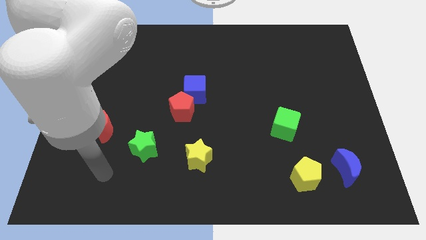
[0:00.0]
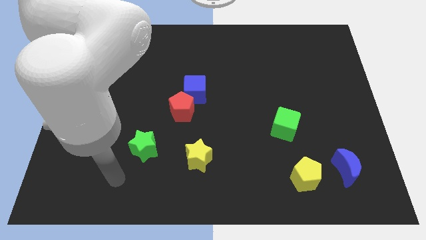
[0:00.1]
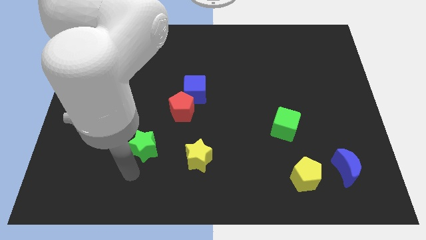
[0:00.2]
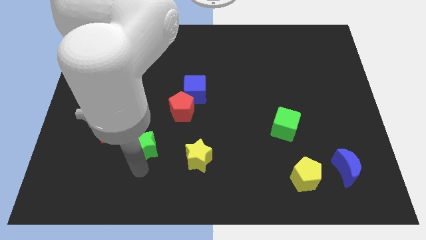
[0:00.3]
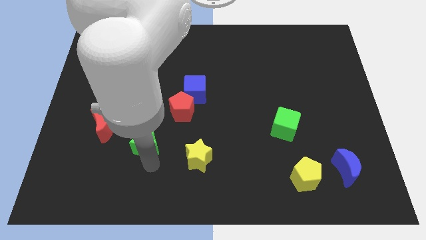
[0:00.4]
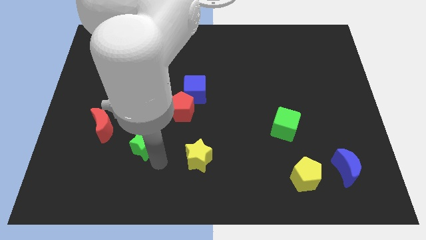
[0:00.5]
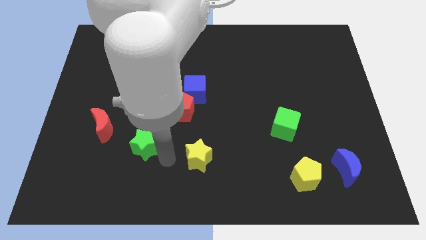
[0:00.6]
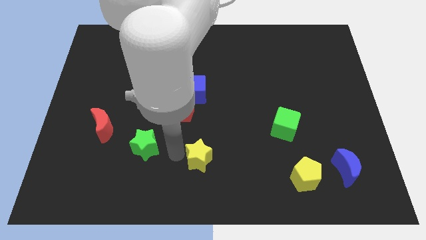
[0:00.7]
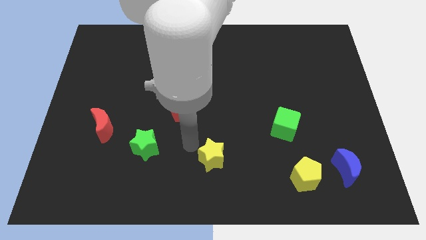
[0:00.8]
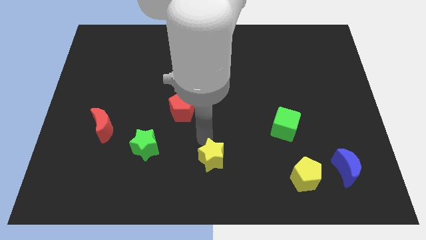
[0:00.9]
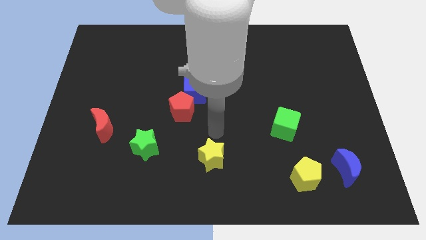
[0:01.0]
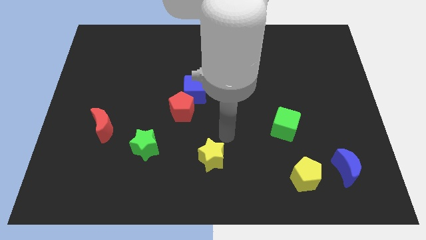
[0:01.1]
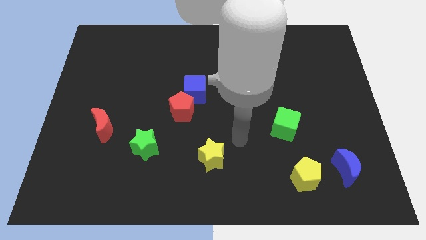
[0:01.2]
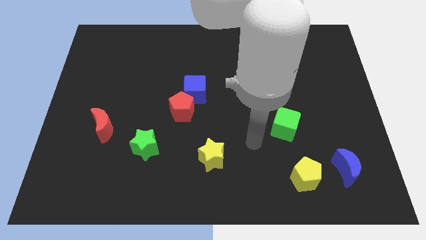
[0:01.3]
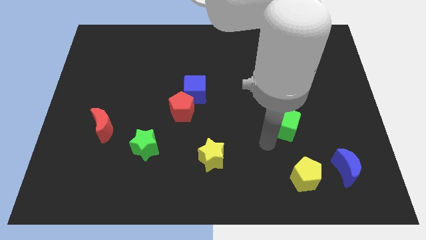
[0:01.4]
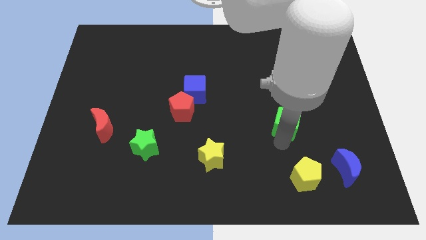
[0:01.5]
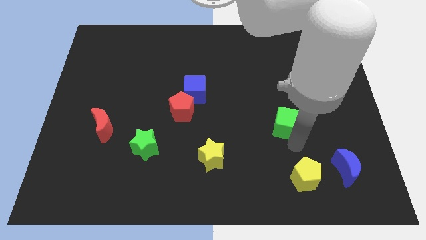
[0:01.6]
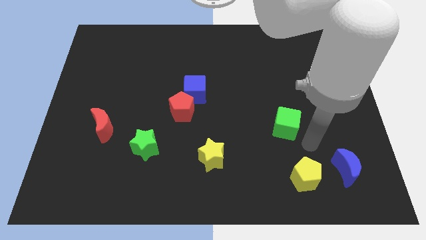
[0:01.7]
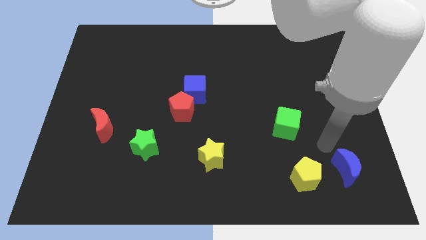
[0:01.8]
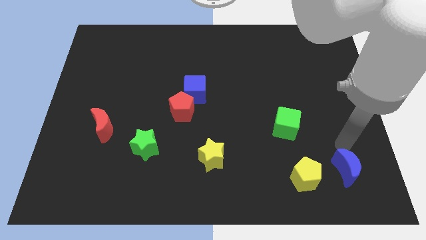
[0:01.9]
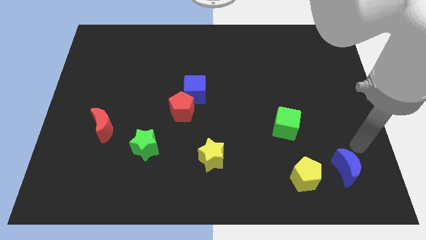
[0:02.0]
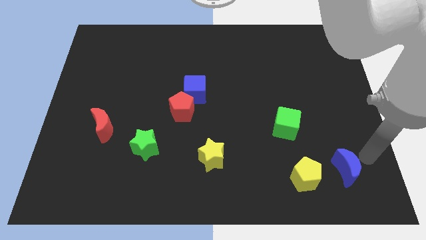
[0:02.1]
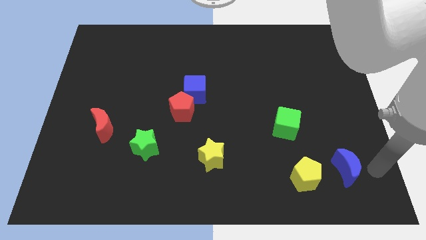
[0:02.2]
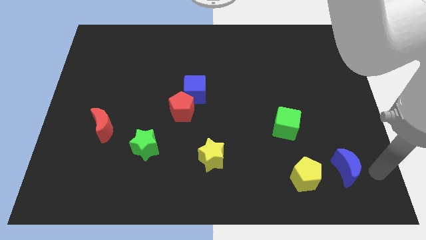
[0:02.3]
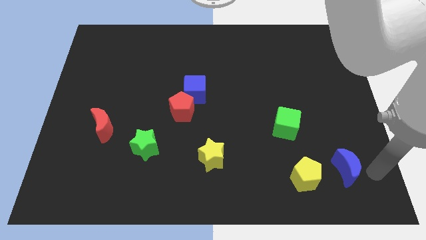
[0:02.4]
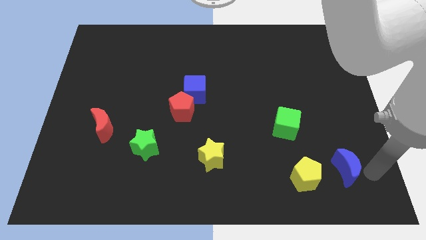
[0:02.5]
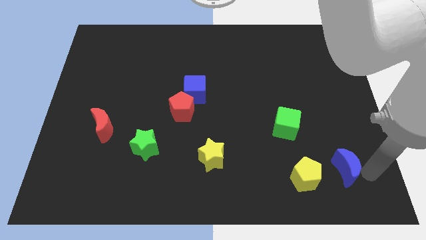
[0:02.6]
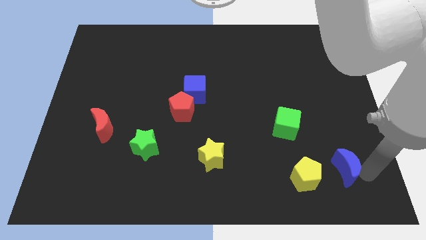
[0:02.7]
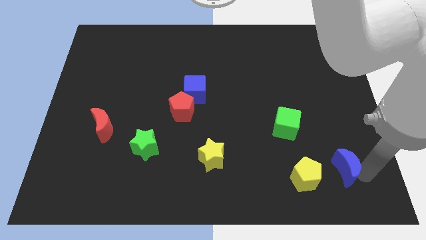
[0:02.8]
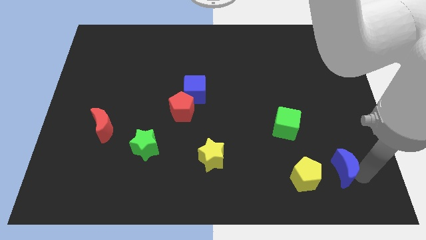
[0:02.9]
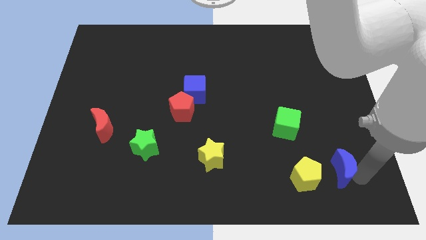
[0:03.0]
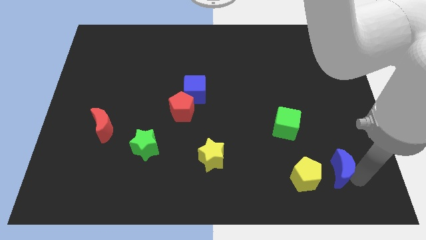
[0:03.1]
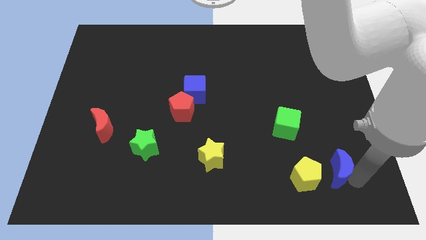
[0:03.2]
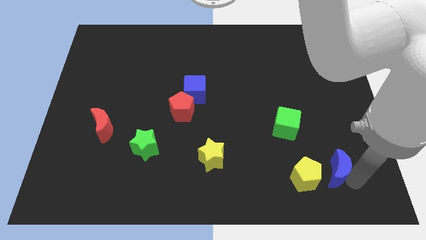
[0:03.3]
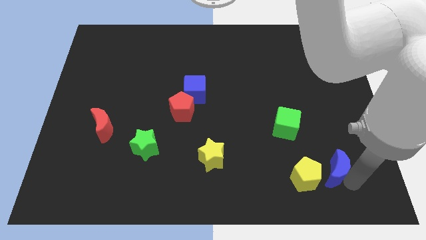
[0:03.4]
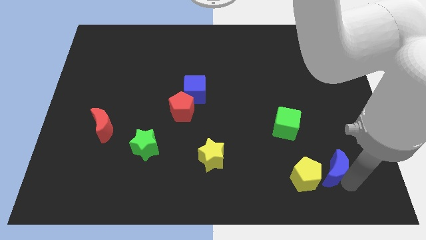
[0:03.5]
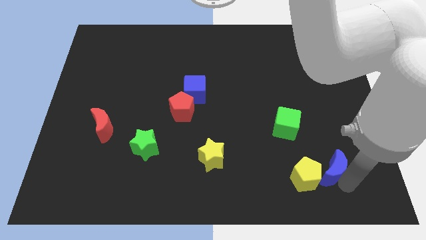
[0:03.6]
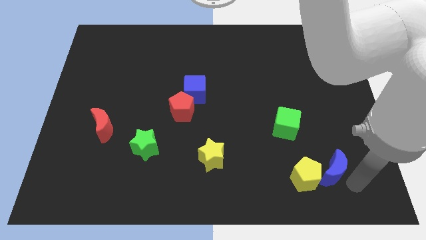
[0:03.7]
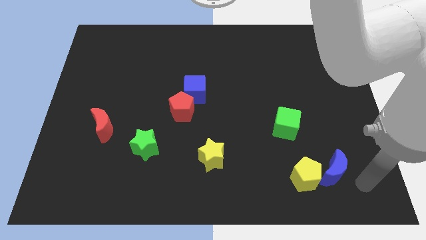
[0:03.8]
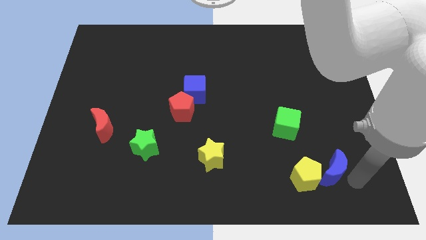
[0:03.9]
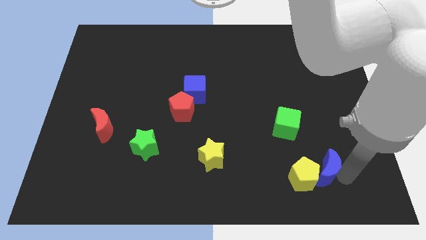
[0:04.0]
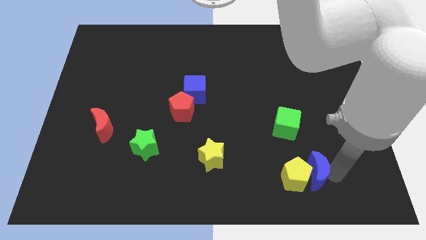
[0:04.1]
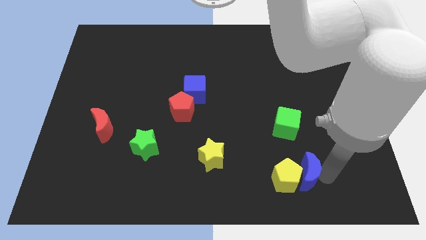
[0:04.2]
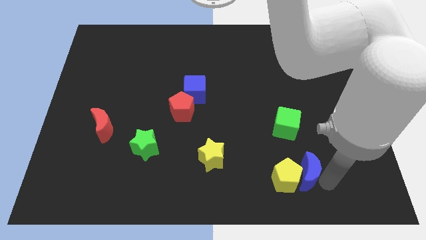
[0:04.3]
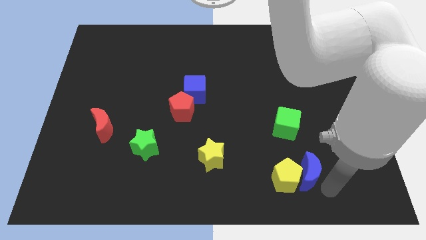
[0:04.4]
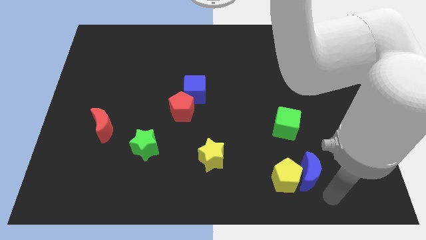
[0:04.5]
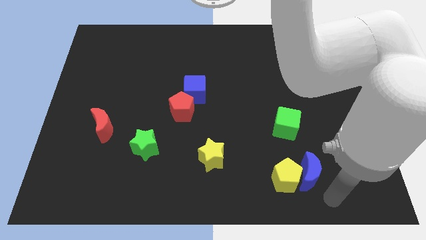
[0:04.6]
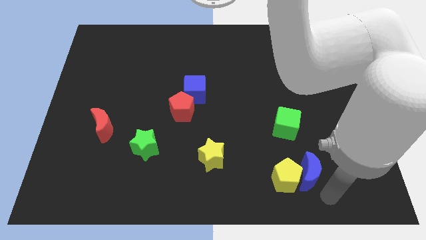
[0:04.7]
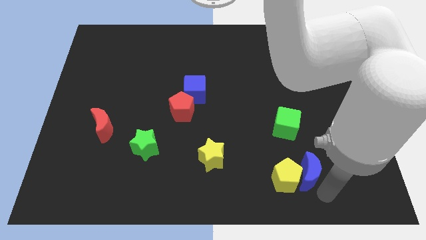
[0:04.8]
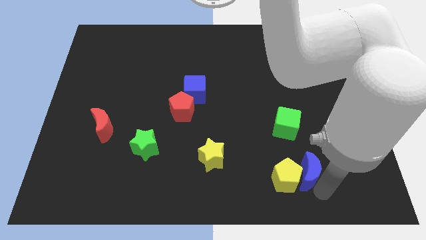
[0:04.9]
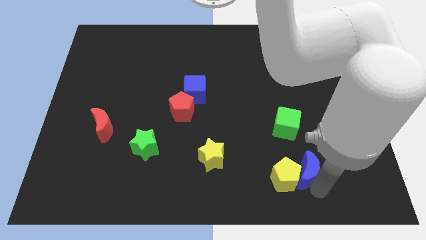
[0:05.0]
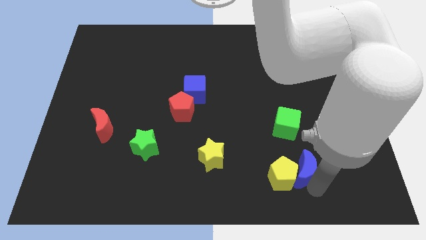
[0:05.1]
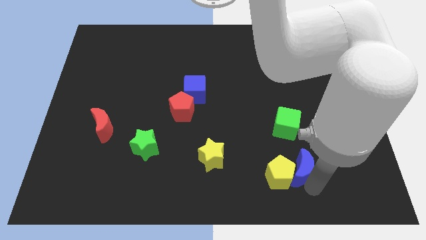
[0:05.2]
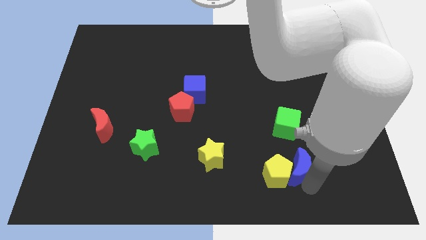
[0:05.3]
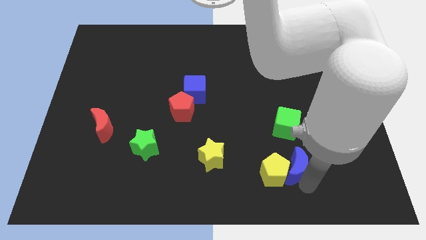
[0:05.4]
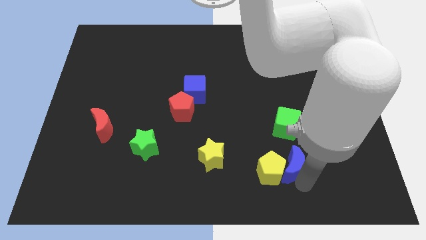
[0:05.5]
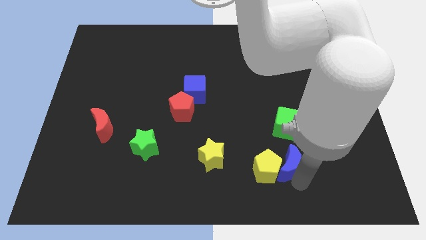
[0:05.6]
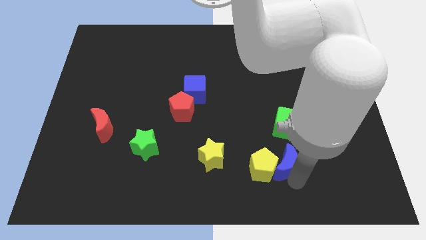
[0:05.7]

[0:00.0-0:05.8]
put the blue moon to the right of the yellow star

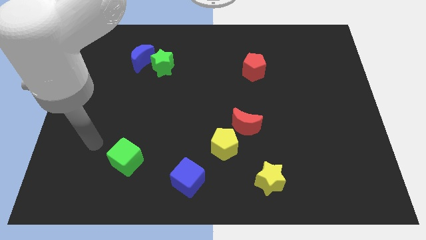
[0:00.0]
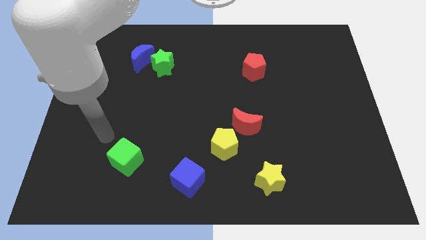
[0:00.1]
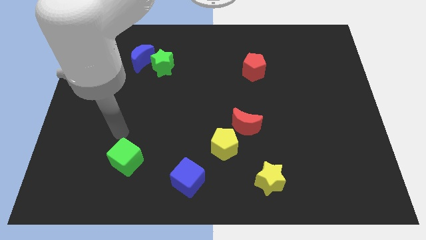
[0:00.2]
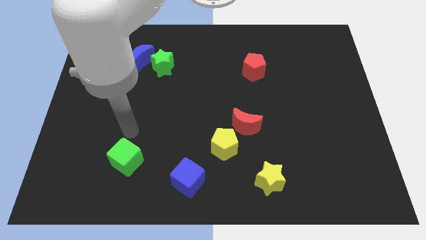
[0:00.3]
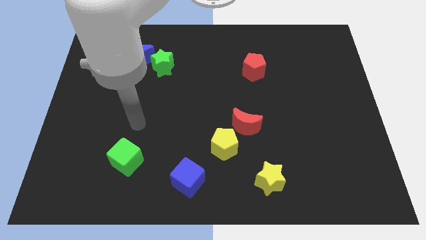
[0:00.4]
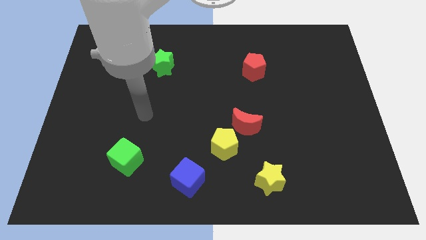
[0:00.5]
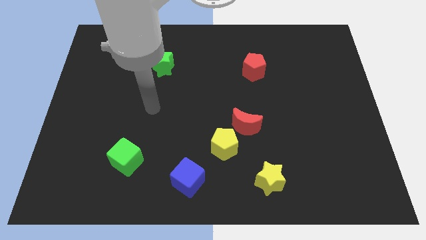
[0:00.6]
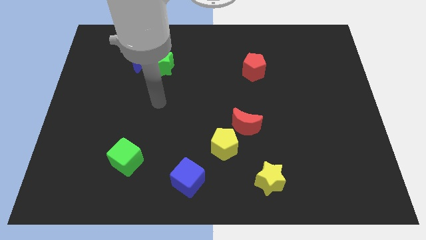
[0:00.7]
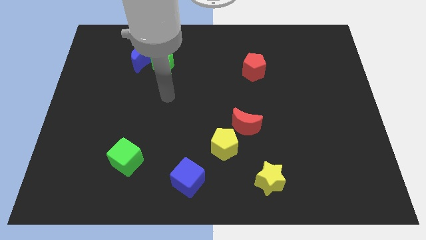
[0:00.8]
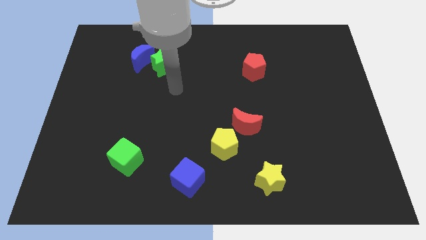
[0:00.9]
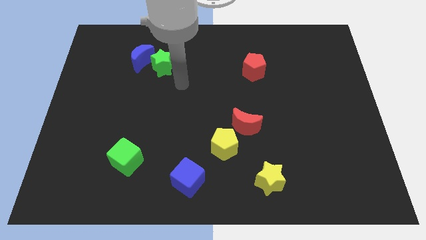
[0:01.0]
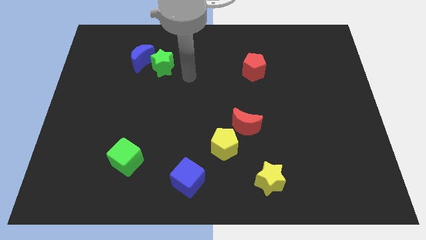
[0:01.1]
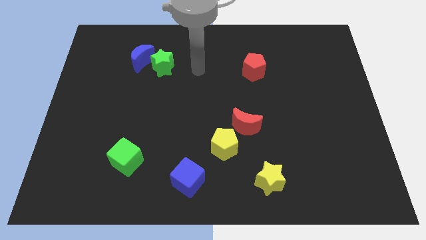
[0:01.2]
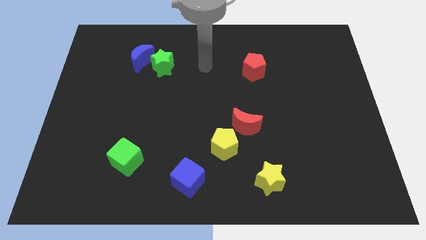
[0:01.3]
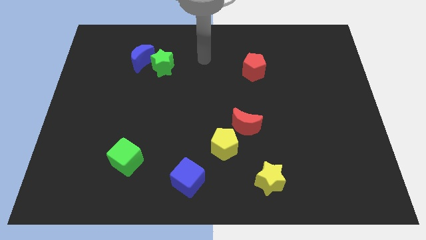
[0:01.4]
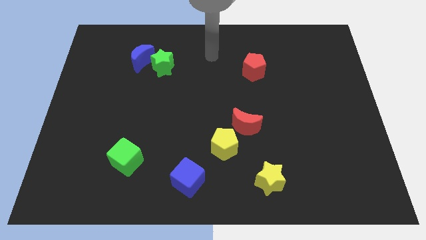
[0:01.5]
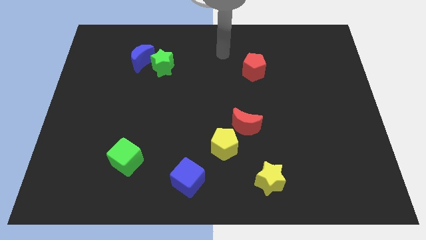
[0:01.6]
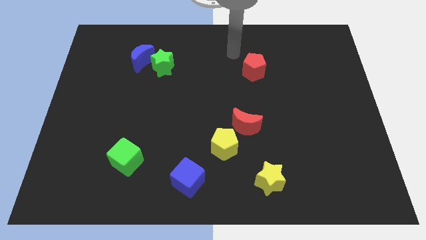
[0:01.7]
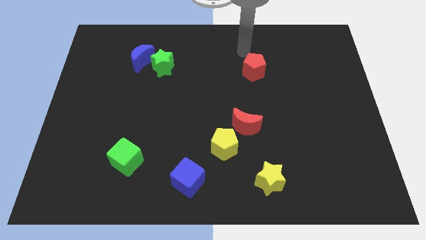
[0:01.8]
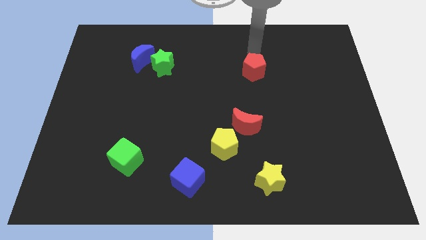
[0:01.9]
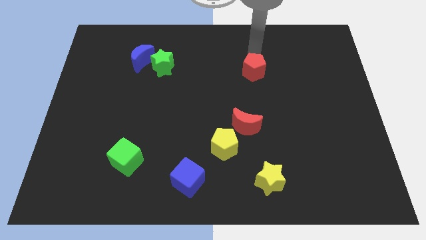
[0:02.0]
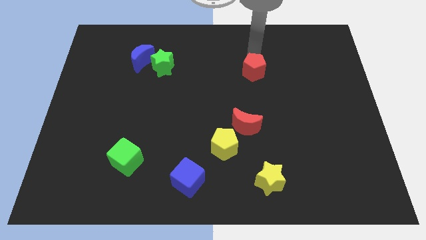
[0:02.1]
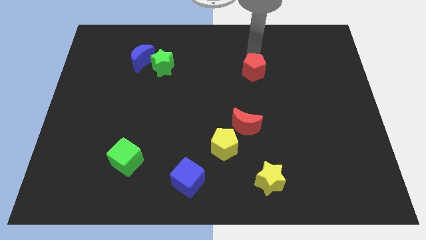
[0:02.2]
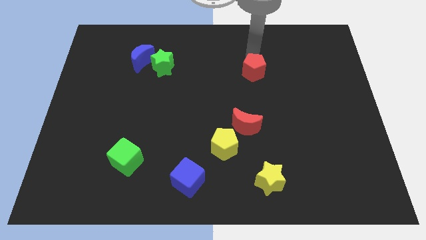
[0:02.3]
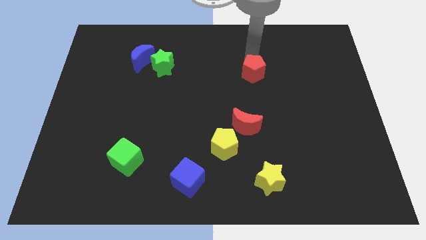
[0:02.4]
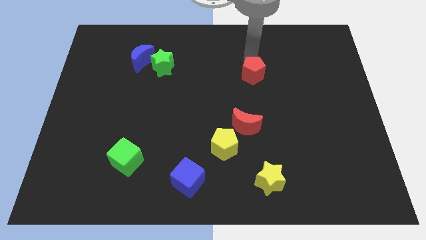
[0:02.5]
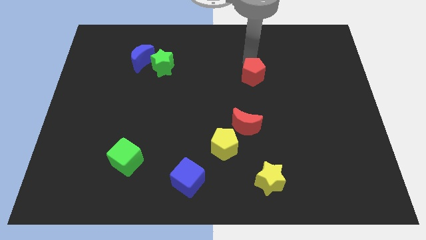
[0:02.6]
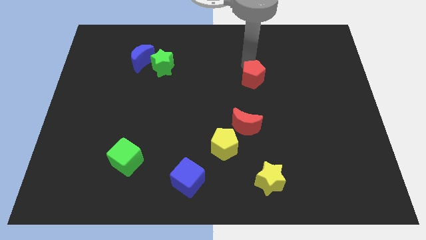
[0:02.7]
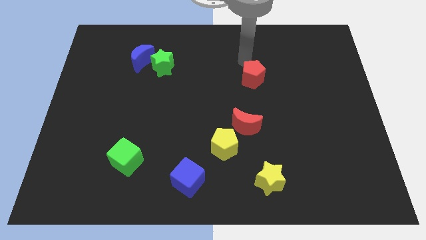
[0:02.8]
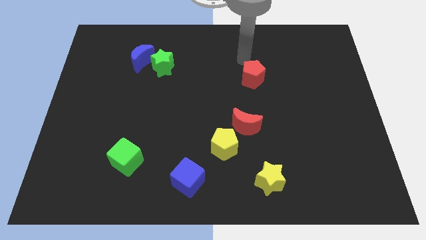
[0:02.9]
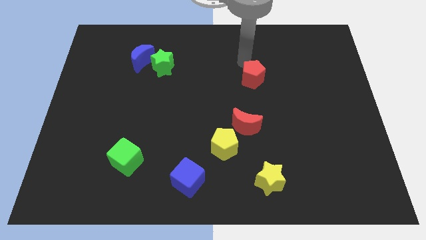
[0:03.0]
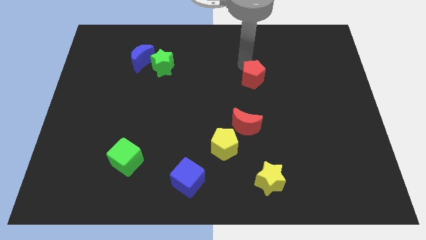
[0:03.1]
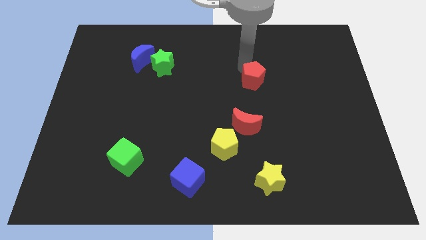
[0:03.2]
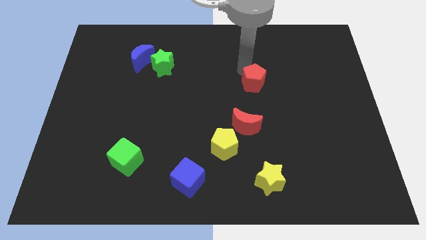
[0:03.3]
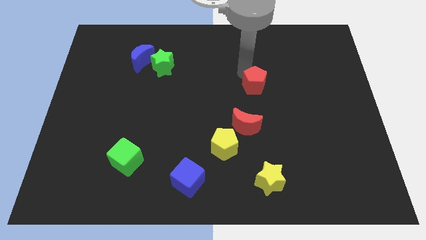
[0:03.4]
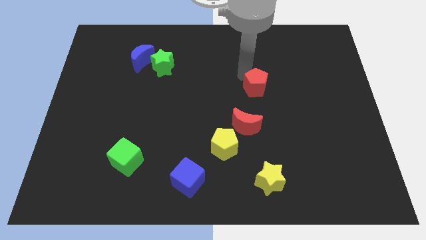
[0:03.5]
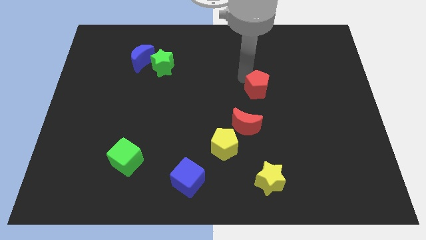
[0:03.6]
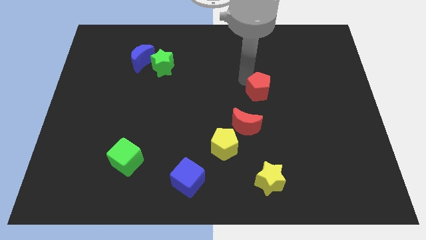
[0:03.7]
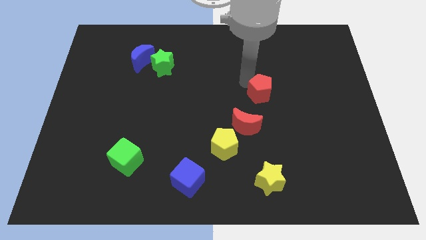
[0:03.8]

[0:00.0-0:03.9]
move the red pentagon diagonally up and to the right of the red moon
